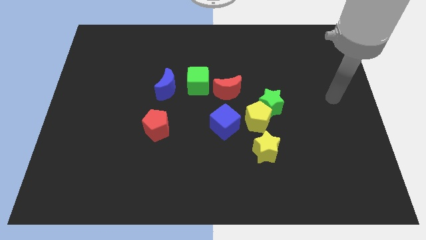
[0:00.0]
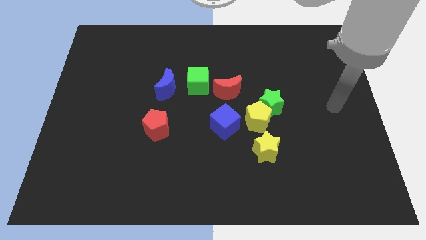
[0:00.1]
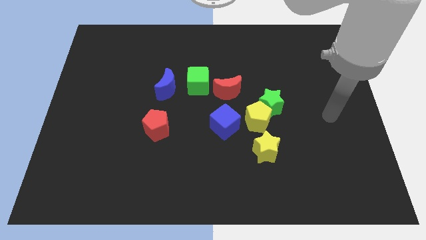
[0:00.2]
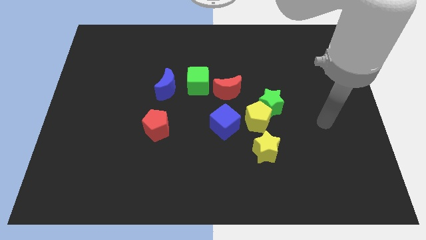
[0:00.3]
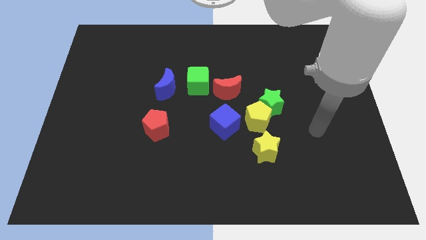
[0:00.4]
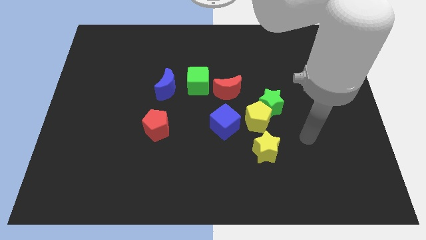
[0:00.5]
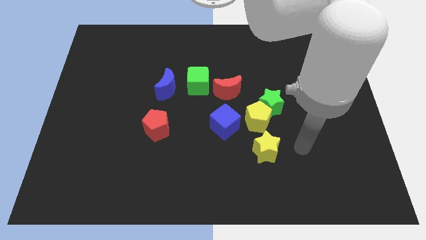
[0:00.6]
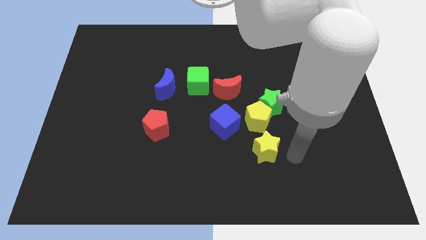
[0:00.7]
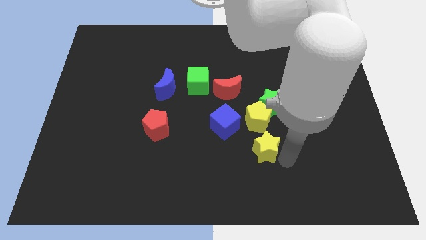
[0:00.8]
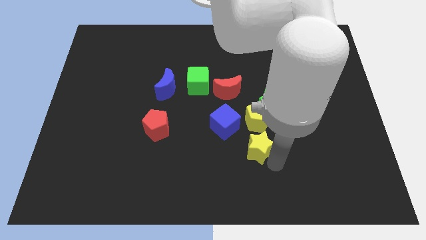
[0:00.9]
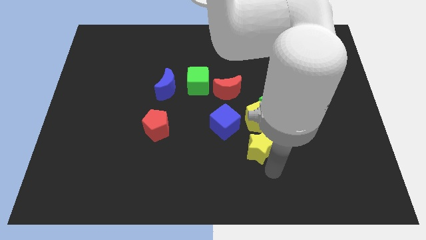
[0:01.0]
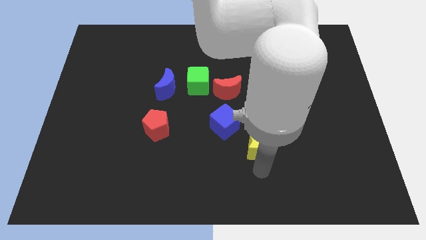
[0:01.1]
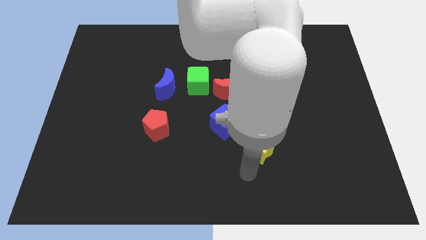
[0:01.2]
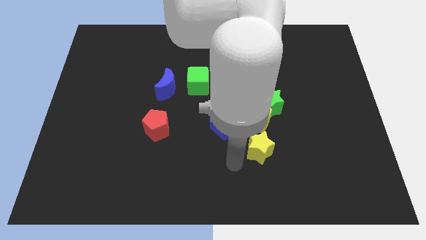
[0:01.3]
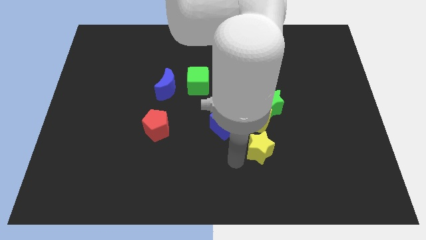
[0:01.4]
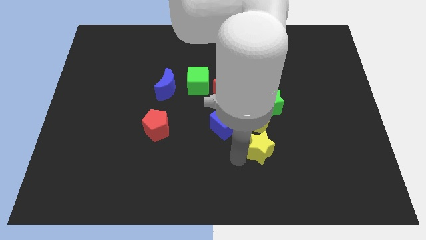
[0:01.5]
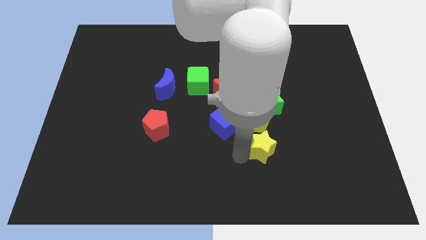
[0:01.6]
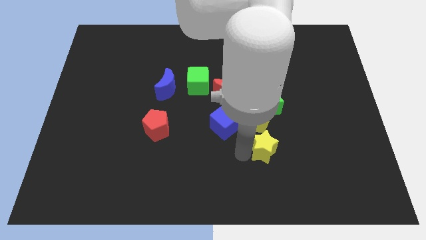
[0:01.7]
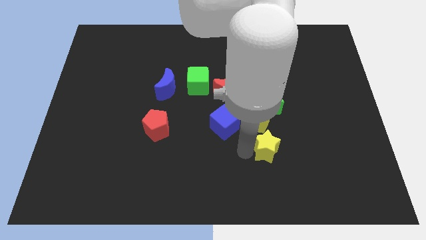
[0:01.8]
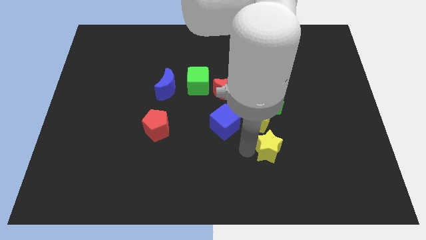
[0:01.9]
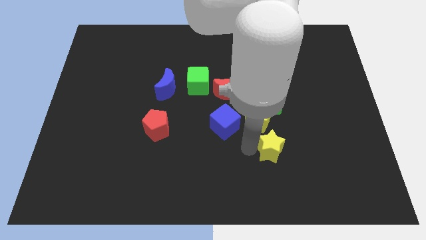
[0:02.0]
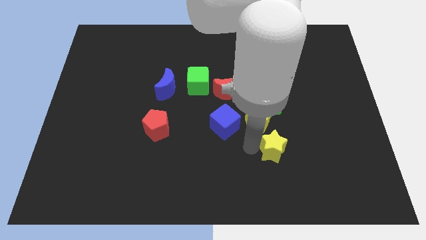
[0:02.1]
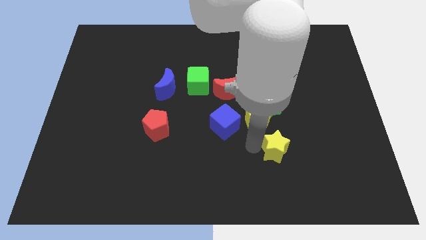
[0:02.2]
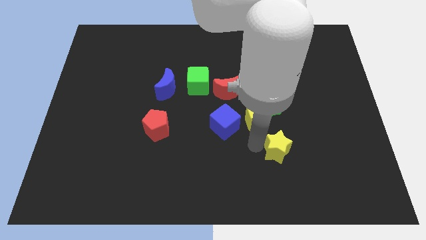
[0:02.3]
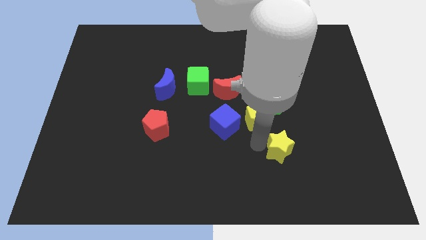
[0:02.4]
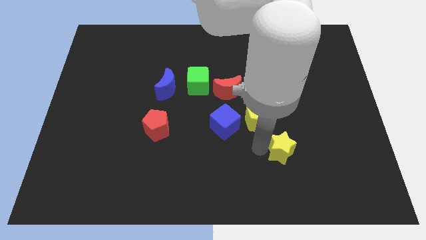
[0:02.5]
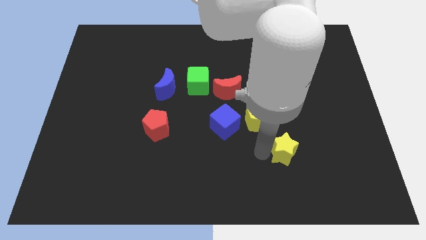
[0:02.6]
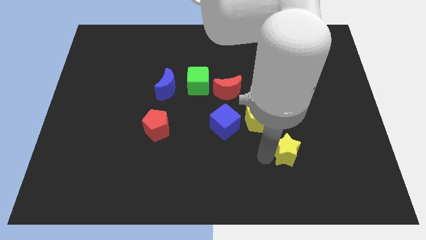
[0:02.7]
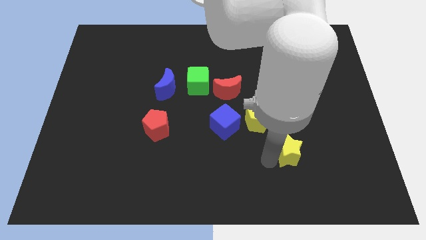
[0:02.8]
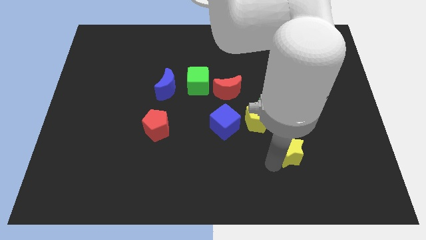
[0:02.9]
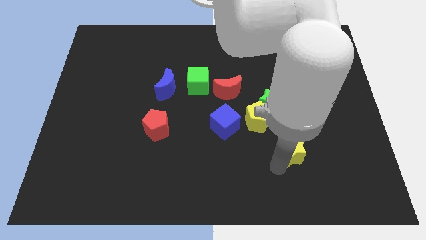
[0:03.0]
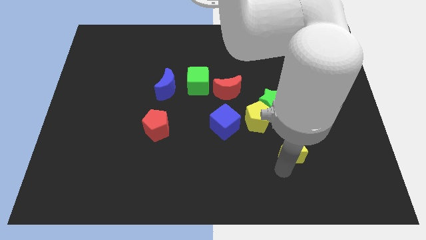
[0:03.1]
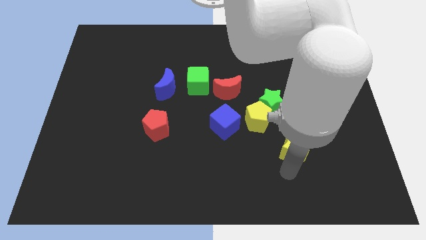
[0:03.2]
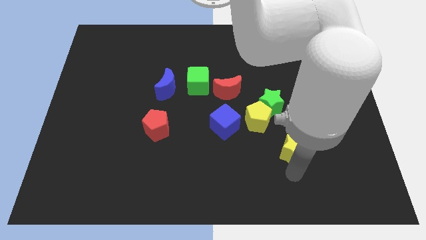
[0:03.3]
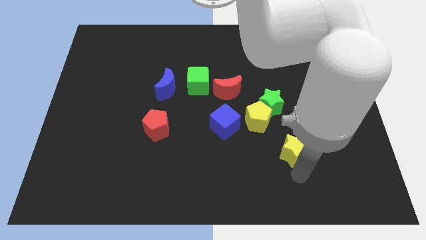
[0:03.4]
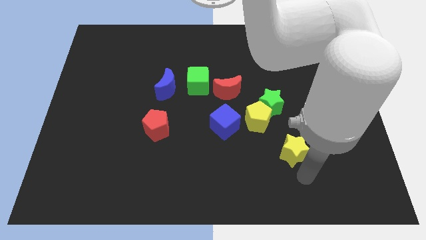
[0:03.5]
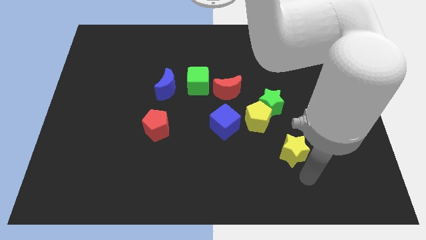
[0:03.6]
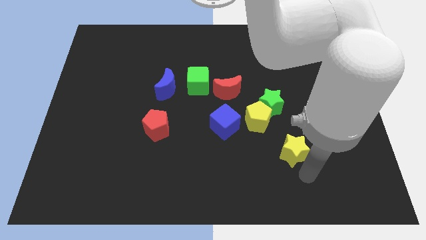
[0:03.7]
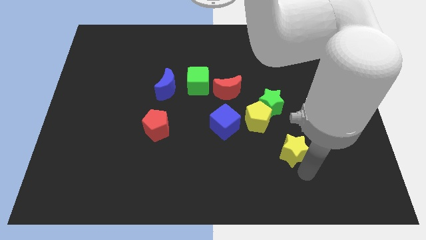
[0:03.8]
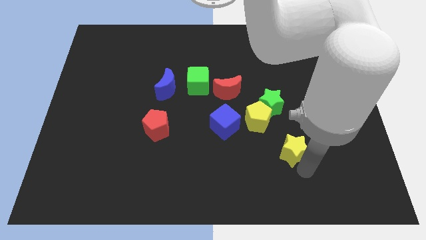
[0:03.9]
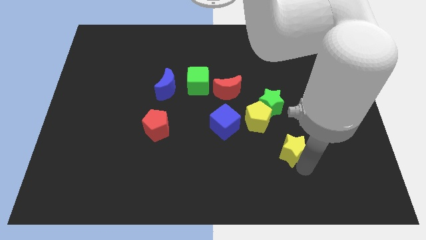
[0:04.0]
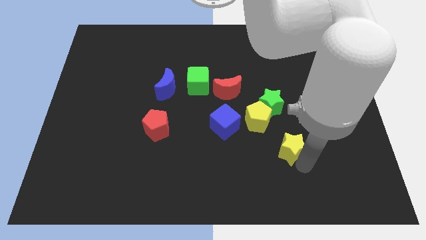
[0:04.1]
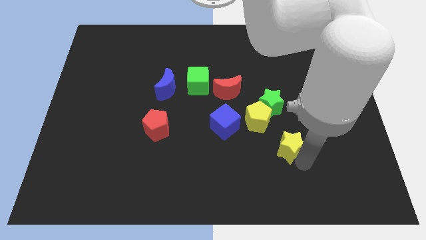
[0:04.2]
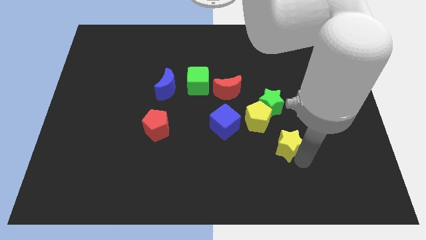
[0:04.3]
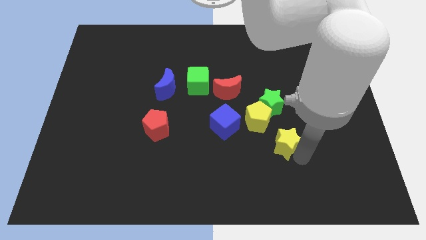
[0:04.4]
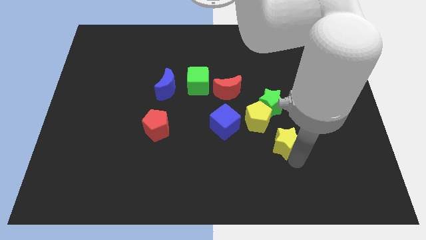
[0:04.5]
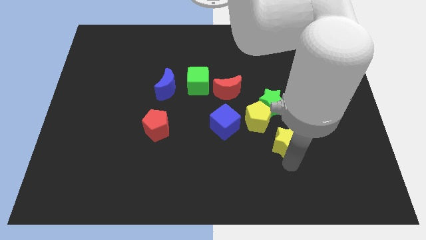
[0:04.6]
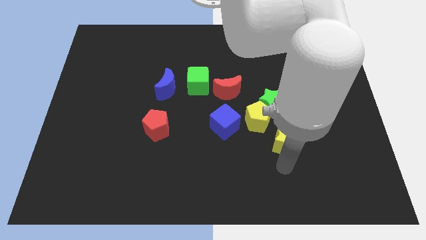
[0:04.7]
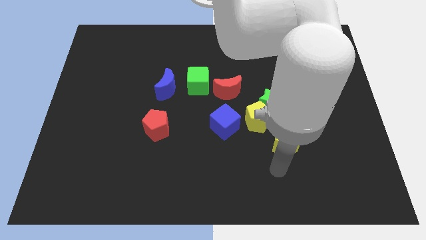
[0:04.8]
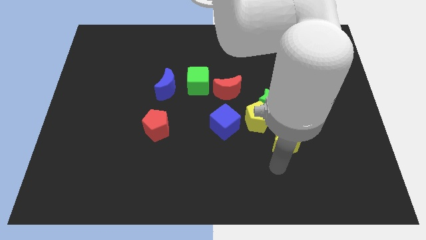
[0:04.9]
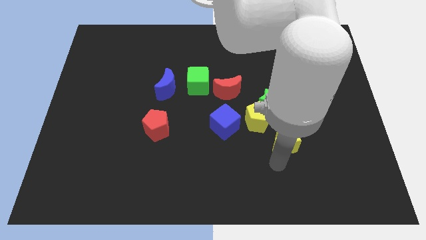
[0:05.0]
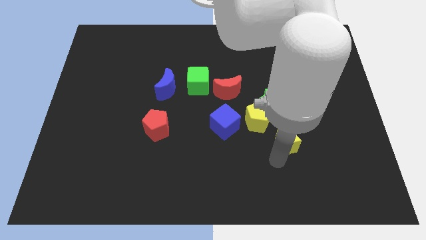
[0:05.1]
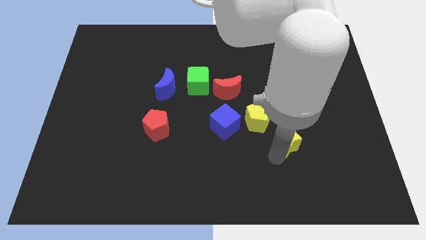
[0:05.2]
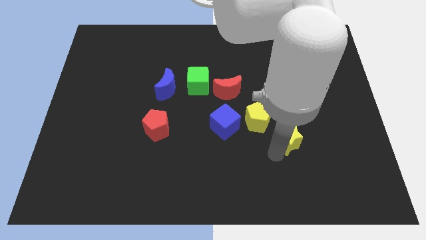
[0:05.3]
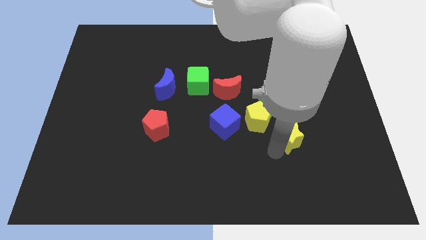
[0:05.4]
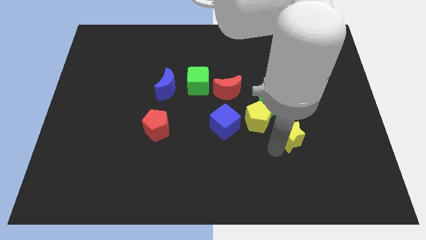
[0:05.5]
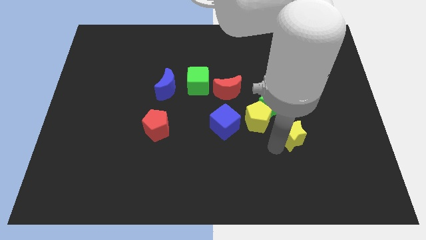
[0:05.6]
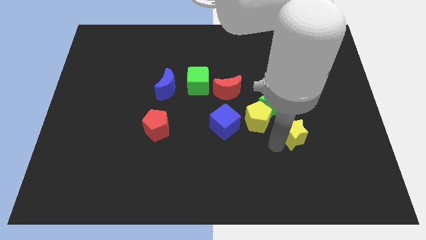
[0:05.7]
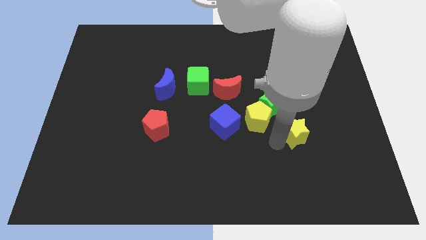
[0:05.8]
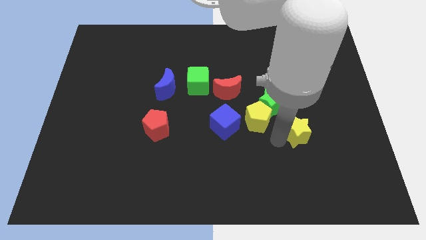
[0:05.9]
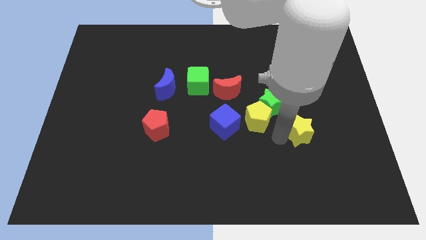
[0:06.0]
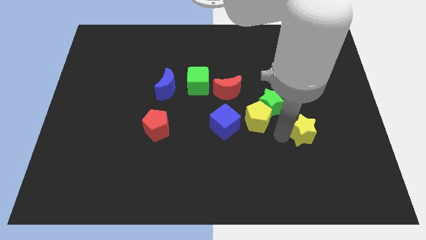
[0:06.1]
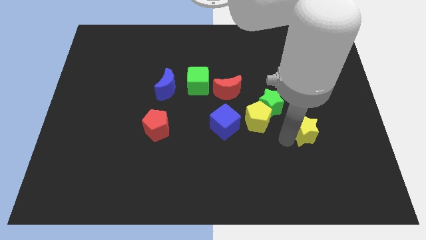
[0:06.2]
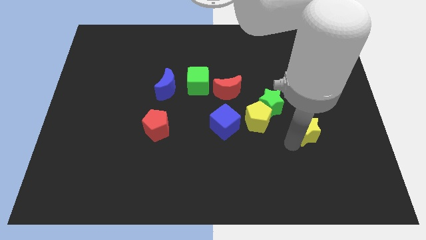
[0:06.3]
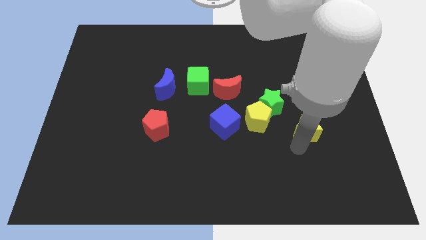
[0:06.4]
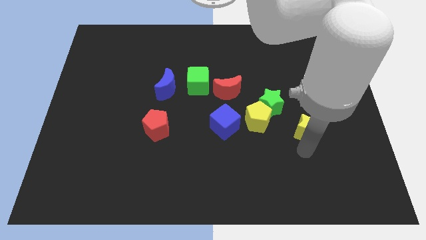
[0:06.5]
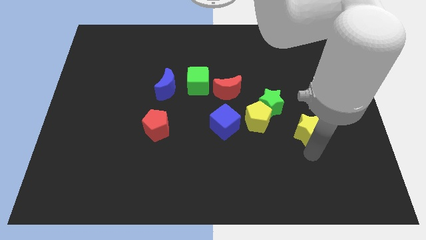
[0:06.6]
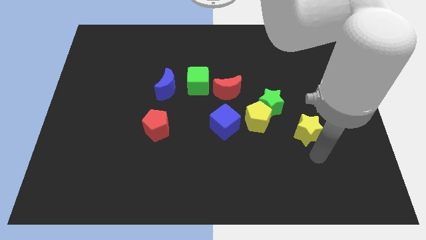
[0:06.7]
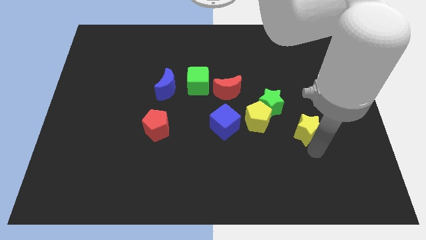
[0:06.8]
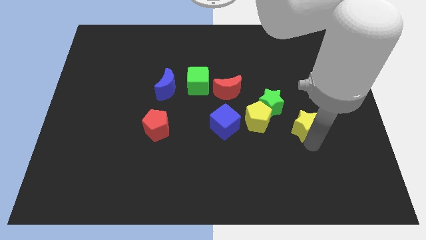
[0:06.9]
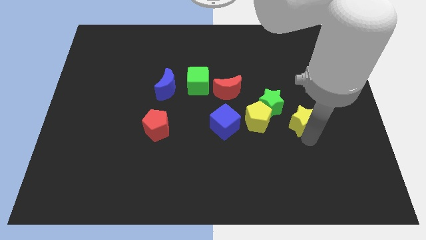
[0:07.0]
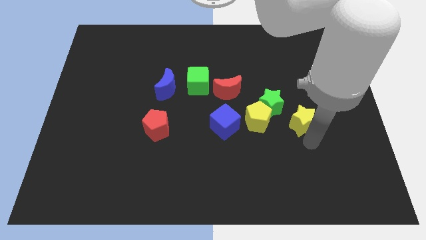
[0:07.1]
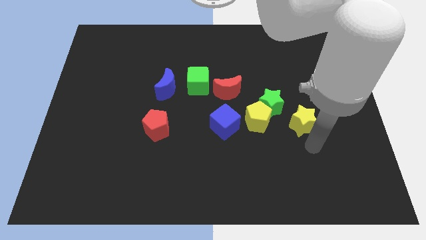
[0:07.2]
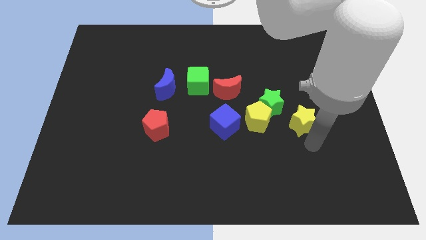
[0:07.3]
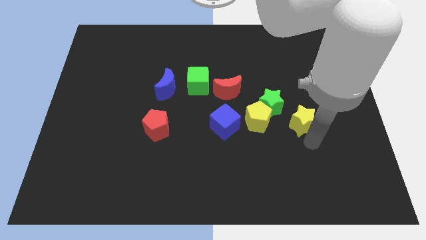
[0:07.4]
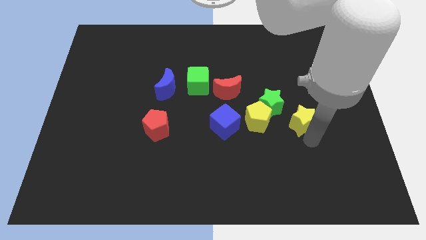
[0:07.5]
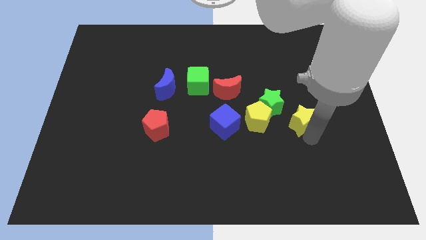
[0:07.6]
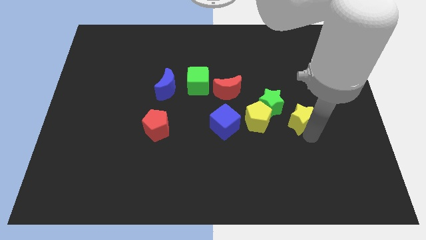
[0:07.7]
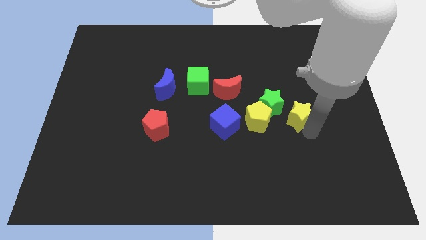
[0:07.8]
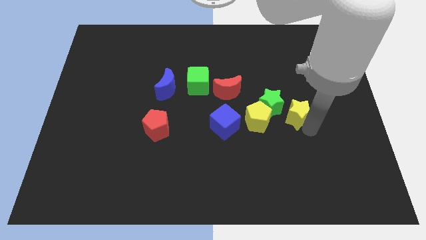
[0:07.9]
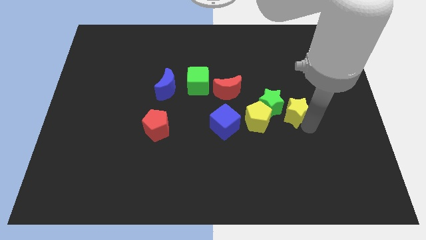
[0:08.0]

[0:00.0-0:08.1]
slide the yellow star up a little
